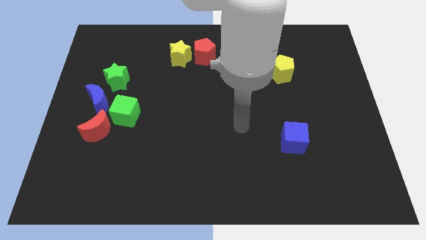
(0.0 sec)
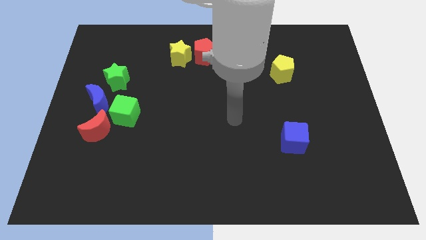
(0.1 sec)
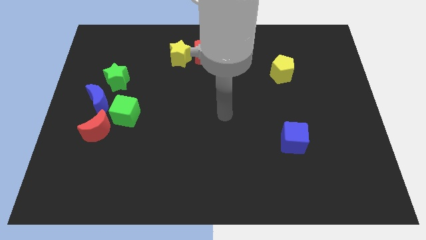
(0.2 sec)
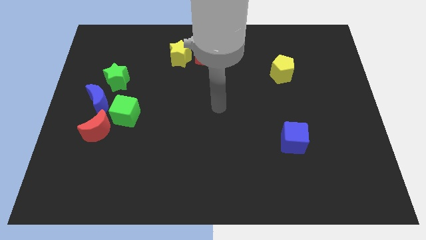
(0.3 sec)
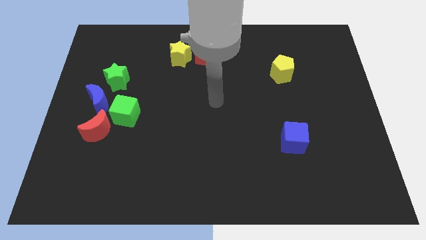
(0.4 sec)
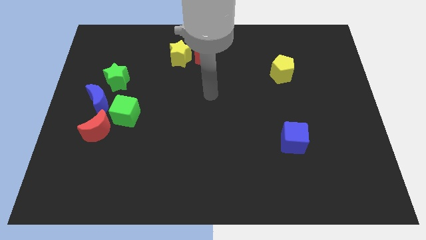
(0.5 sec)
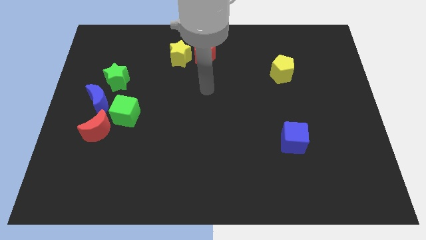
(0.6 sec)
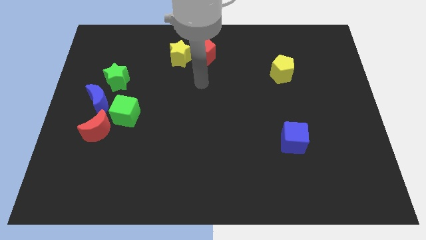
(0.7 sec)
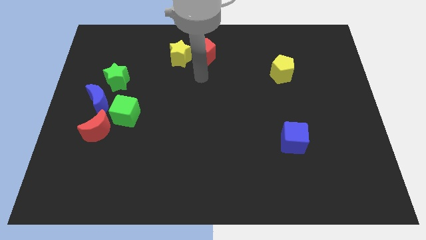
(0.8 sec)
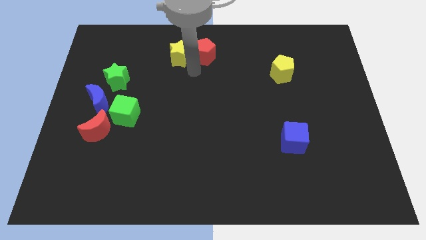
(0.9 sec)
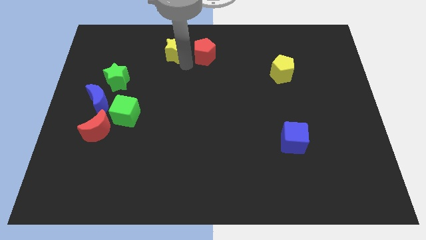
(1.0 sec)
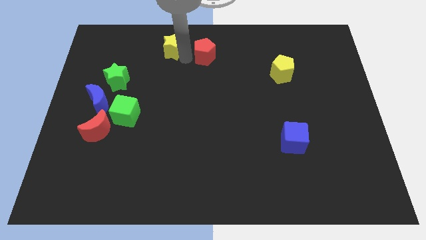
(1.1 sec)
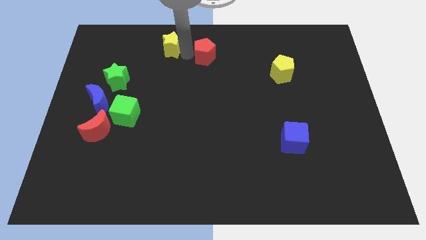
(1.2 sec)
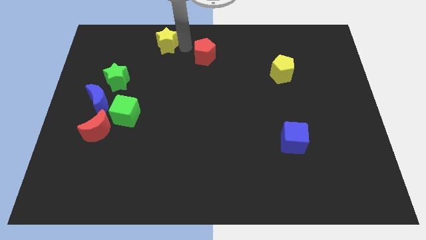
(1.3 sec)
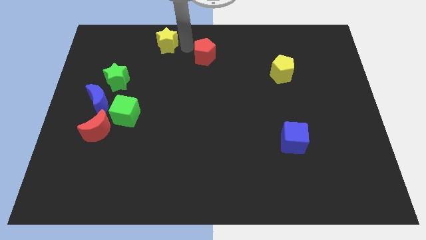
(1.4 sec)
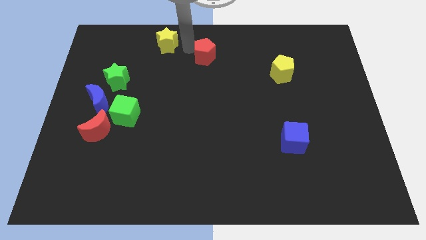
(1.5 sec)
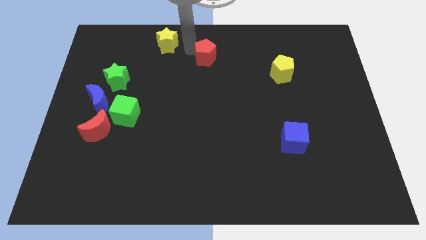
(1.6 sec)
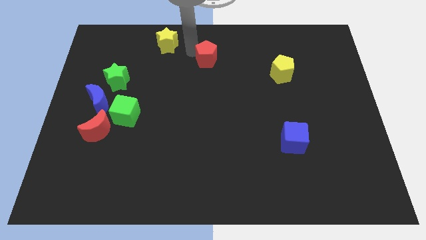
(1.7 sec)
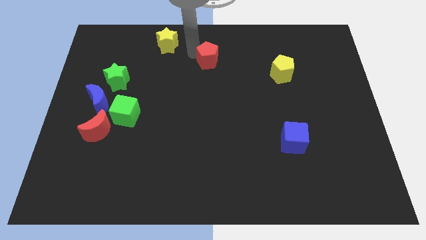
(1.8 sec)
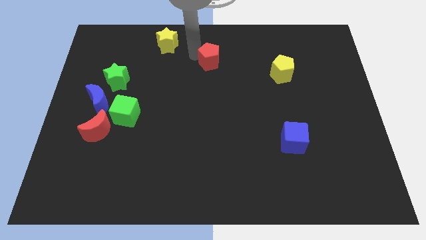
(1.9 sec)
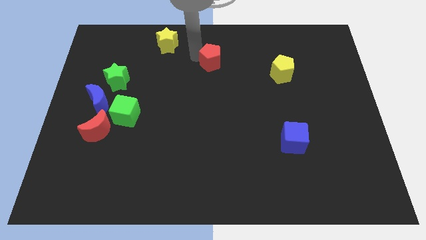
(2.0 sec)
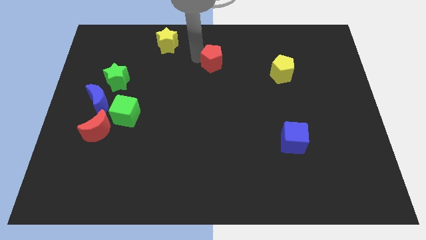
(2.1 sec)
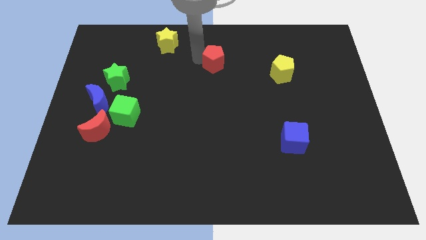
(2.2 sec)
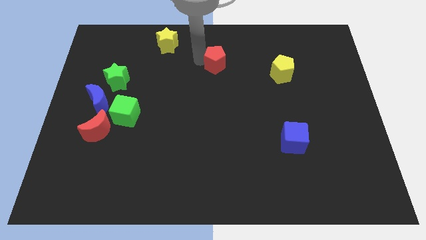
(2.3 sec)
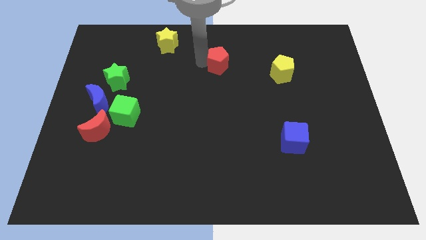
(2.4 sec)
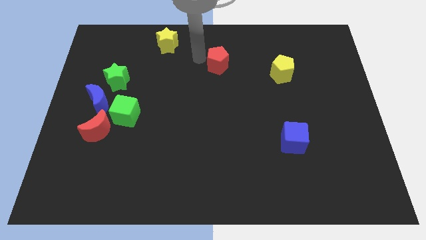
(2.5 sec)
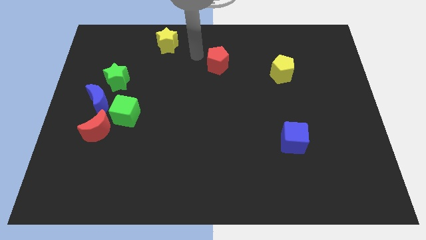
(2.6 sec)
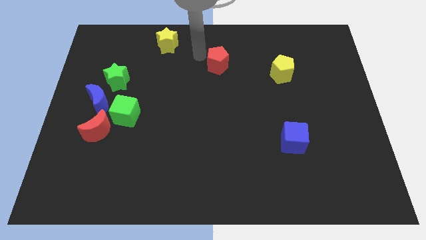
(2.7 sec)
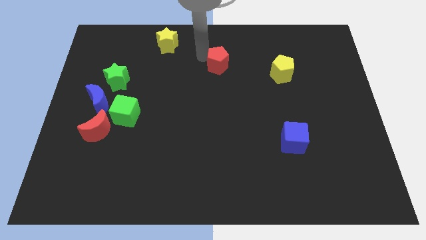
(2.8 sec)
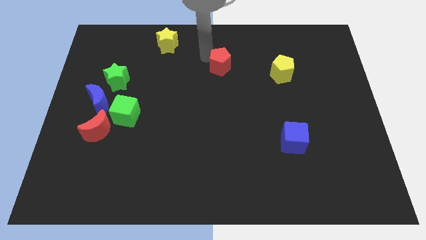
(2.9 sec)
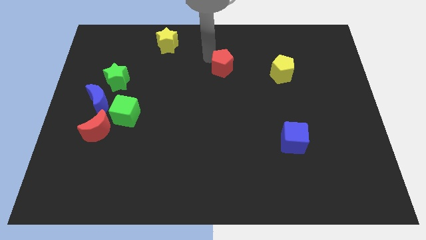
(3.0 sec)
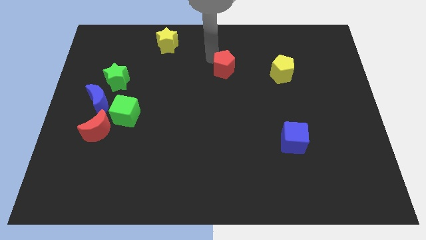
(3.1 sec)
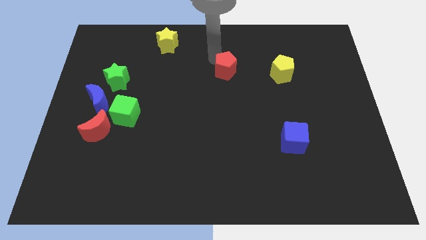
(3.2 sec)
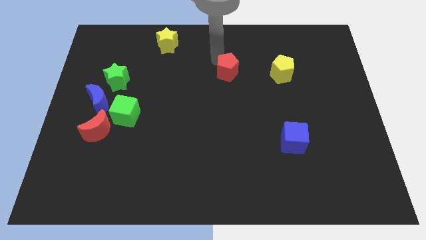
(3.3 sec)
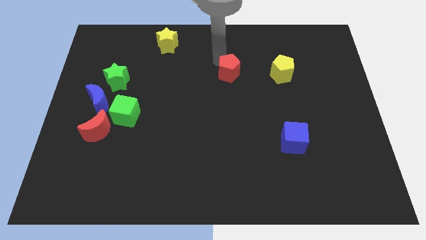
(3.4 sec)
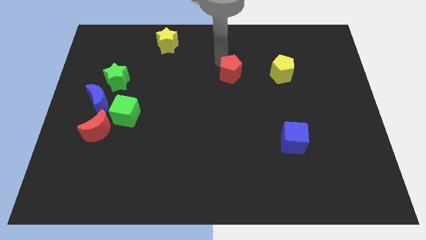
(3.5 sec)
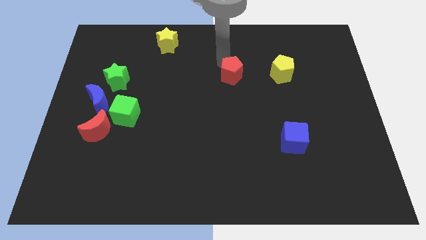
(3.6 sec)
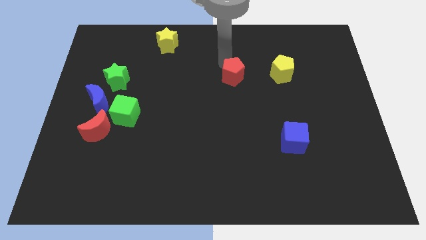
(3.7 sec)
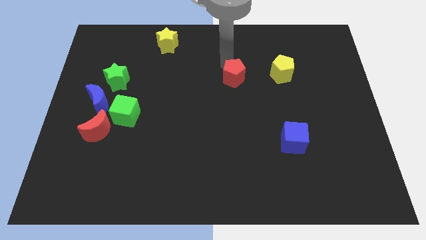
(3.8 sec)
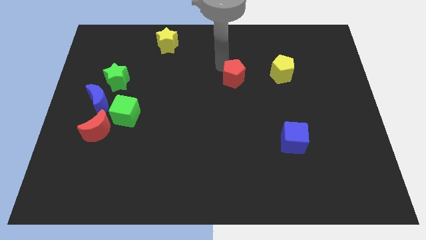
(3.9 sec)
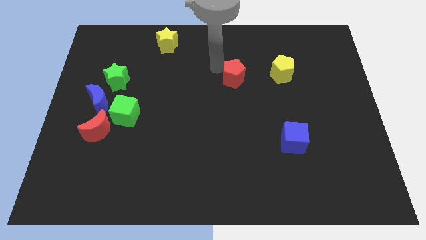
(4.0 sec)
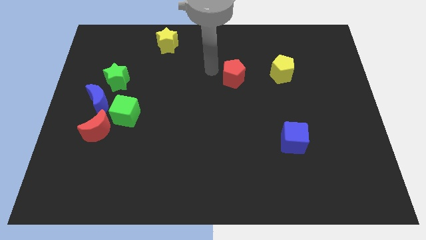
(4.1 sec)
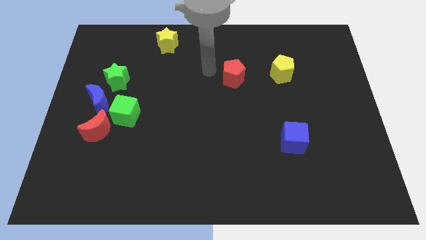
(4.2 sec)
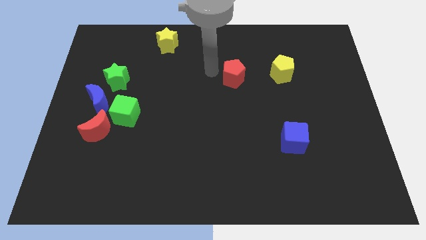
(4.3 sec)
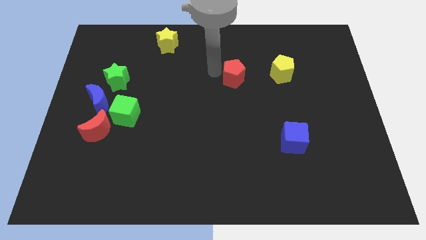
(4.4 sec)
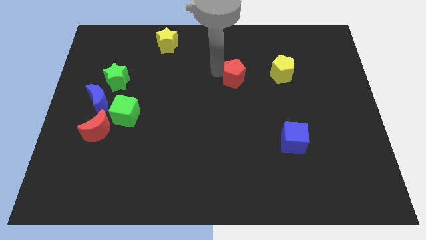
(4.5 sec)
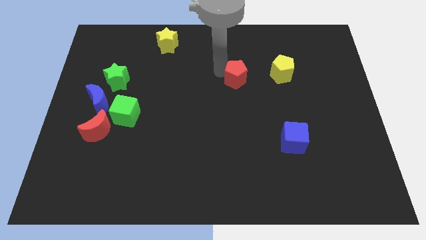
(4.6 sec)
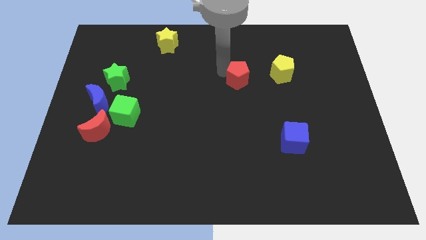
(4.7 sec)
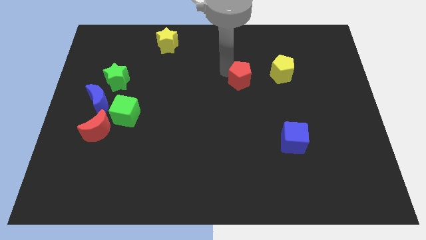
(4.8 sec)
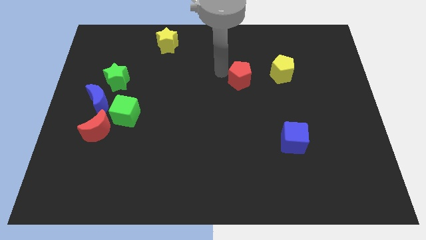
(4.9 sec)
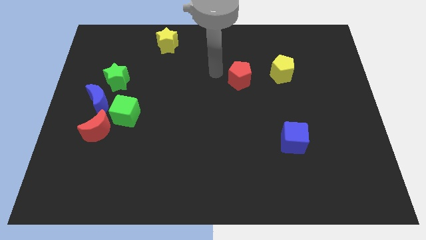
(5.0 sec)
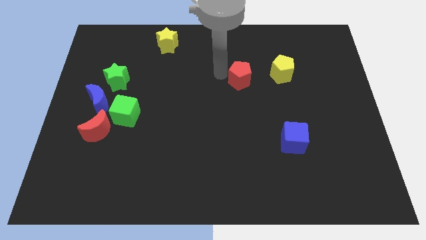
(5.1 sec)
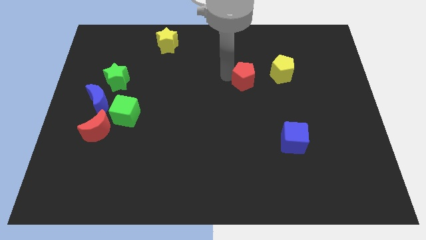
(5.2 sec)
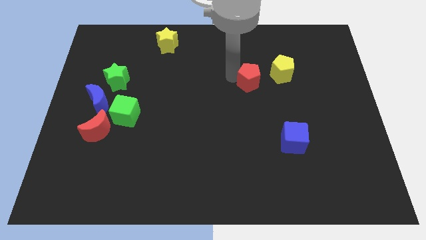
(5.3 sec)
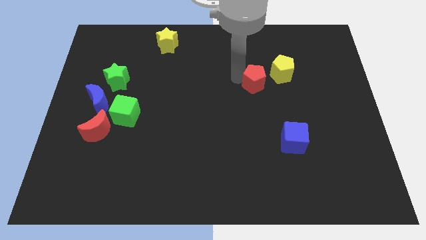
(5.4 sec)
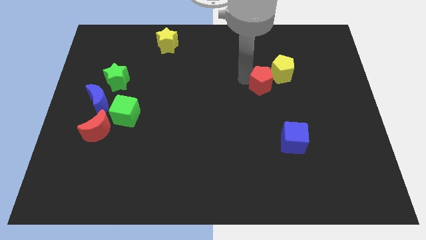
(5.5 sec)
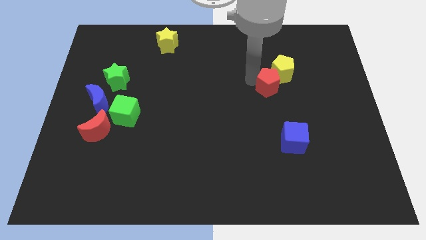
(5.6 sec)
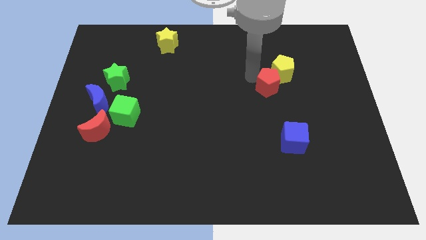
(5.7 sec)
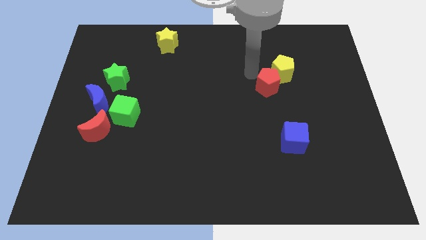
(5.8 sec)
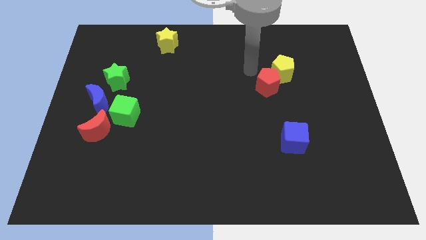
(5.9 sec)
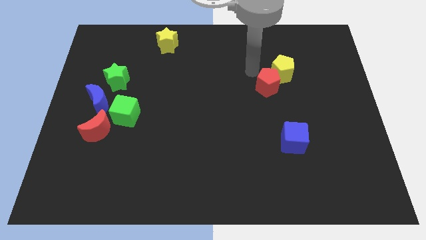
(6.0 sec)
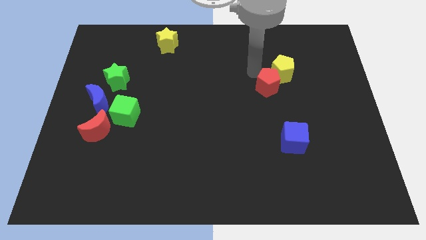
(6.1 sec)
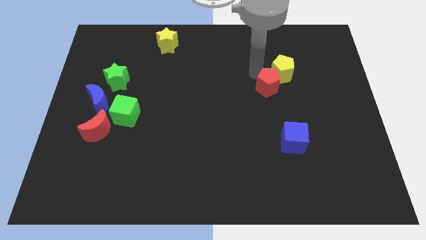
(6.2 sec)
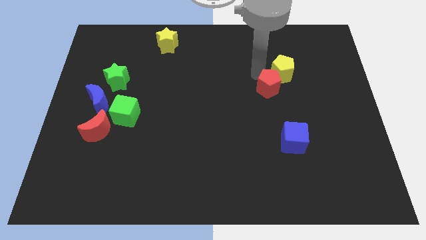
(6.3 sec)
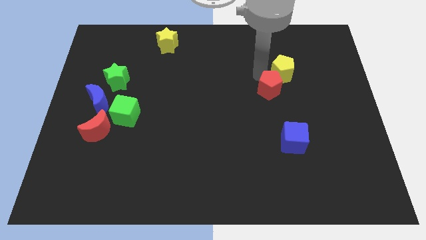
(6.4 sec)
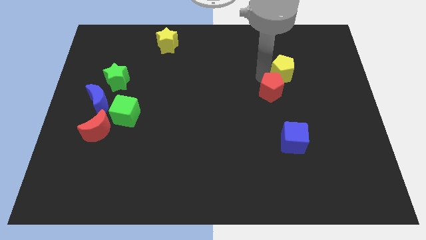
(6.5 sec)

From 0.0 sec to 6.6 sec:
move the red pentagon down and right

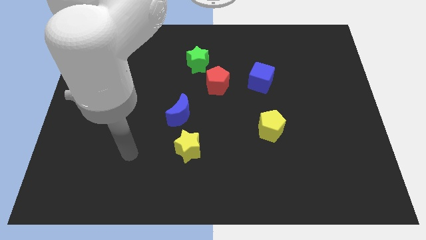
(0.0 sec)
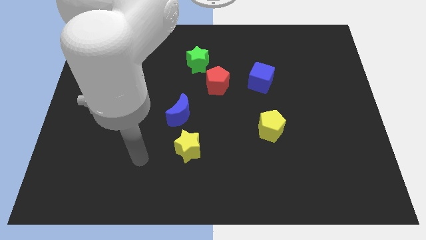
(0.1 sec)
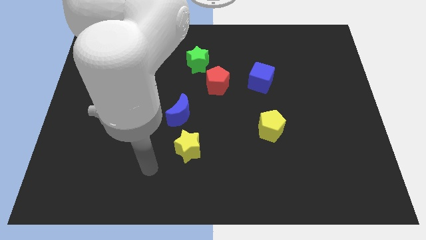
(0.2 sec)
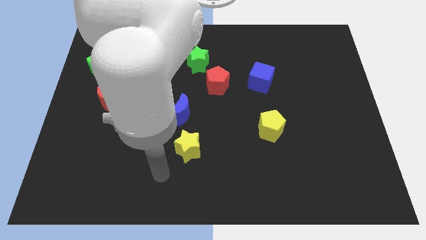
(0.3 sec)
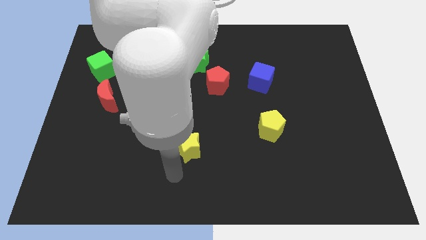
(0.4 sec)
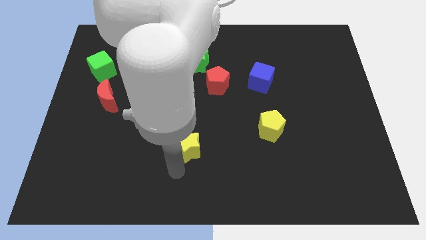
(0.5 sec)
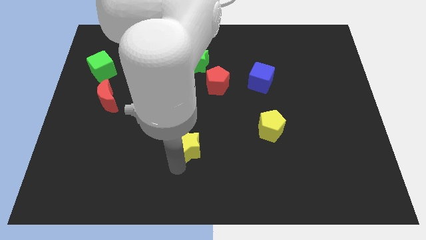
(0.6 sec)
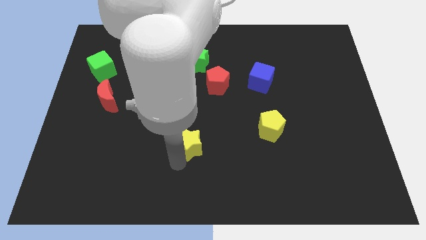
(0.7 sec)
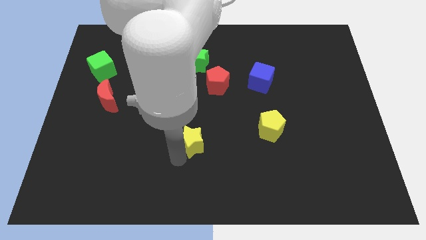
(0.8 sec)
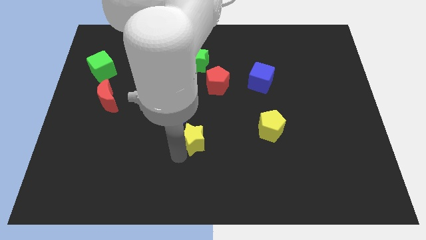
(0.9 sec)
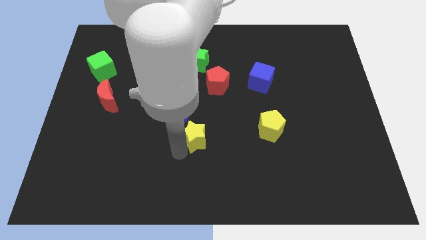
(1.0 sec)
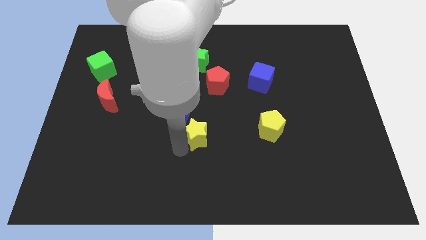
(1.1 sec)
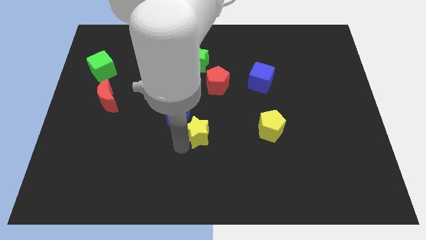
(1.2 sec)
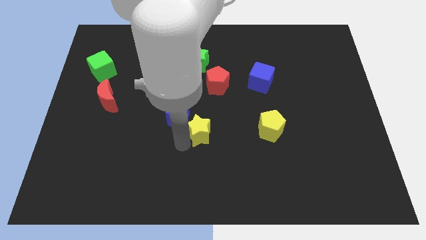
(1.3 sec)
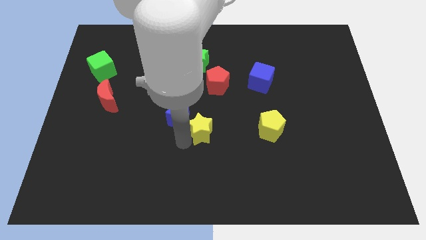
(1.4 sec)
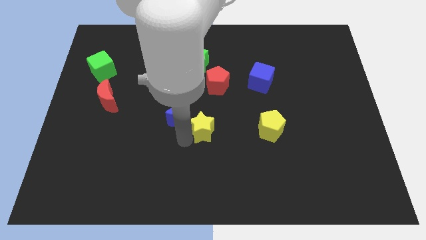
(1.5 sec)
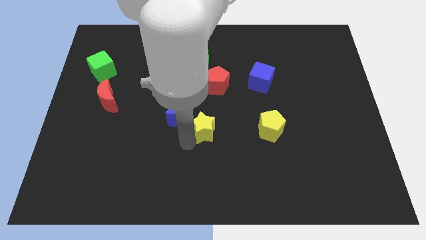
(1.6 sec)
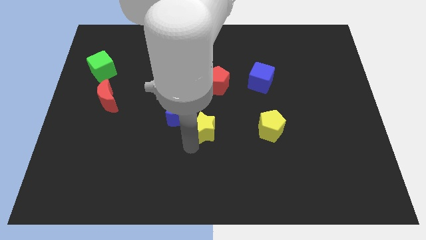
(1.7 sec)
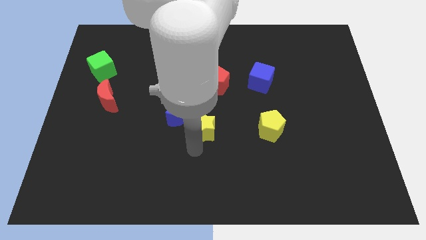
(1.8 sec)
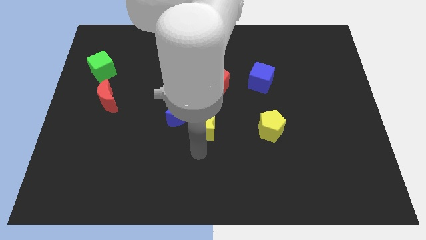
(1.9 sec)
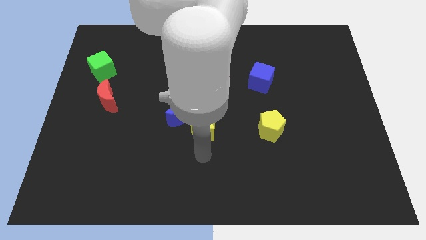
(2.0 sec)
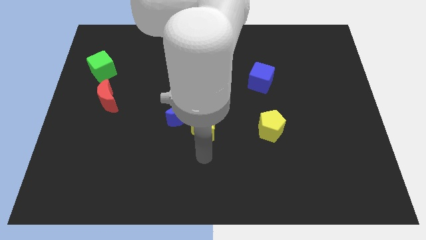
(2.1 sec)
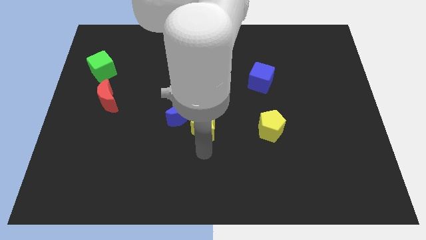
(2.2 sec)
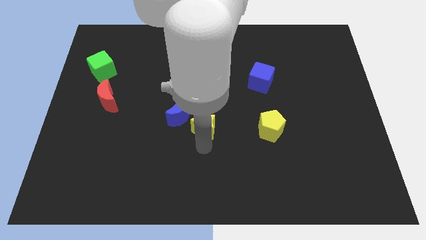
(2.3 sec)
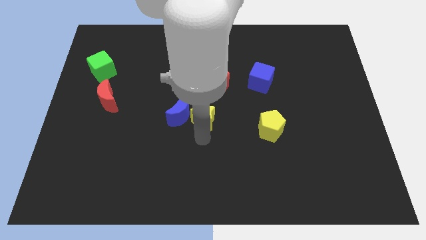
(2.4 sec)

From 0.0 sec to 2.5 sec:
slightly move the yellow star up
